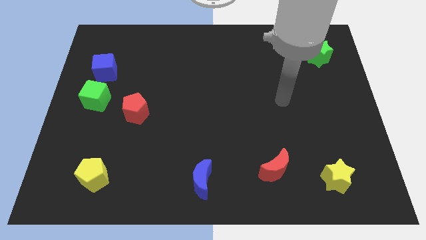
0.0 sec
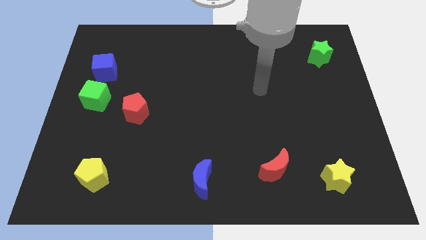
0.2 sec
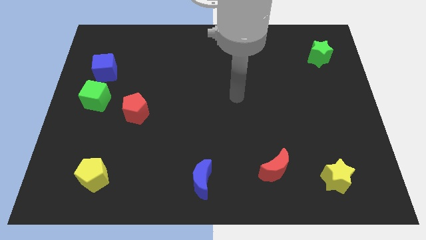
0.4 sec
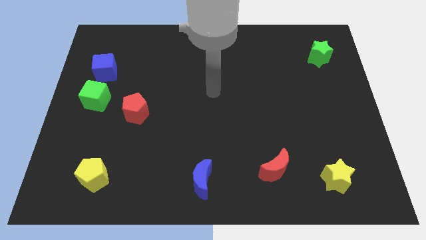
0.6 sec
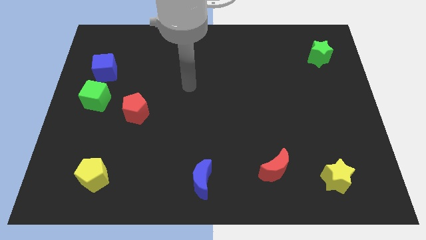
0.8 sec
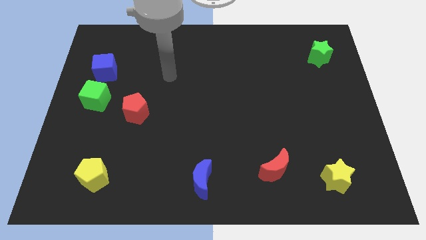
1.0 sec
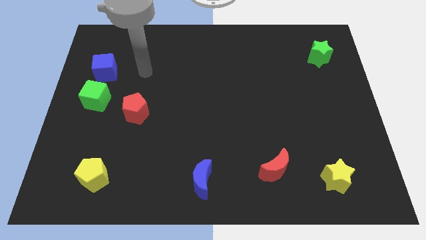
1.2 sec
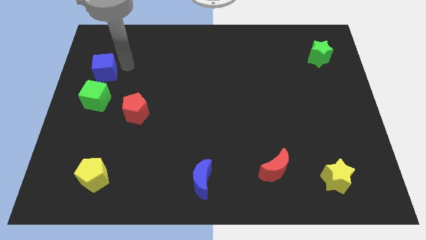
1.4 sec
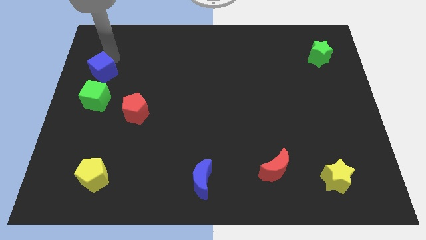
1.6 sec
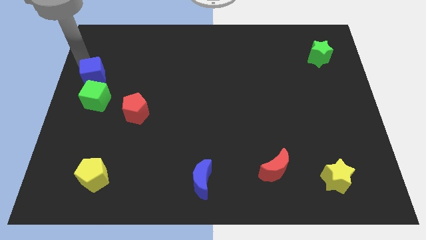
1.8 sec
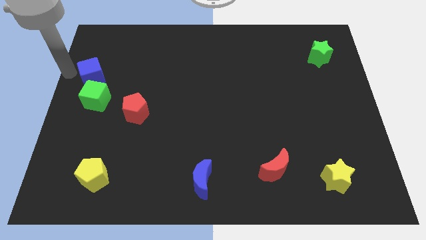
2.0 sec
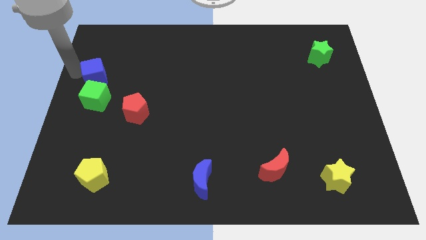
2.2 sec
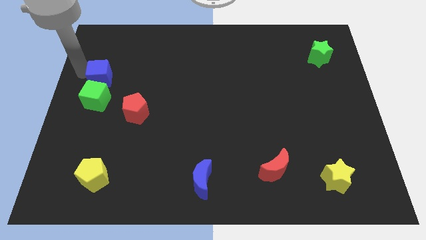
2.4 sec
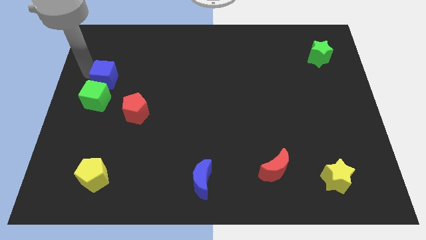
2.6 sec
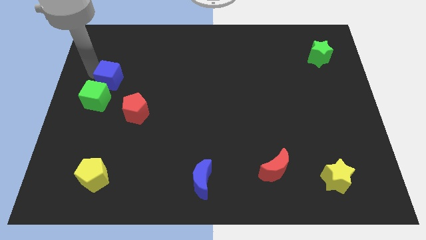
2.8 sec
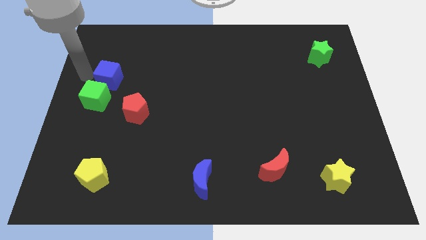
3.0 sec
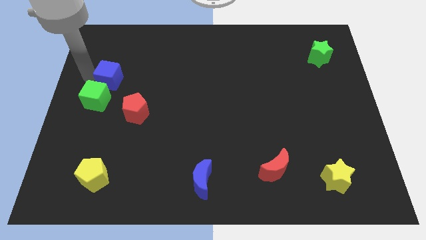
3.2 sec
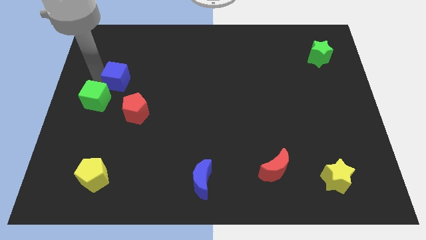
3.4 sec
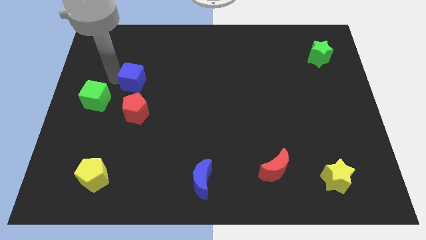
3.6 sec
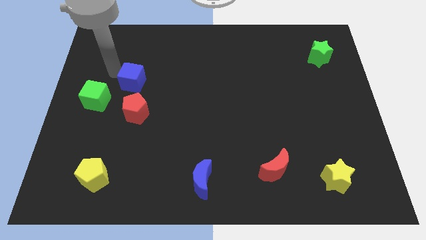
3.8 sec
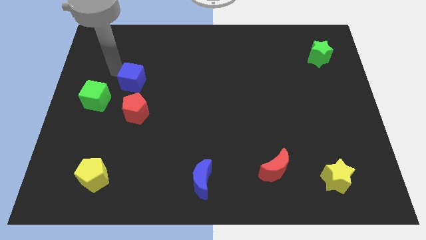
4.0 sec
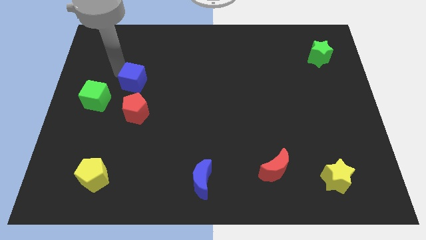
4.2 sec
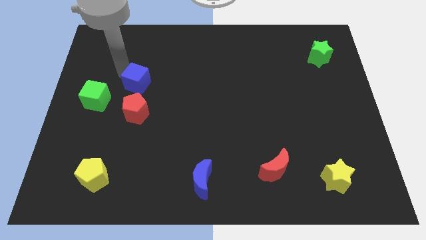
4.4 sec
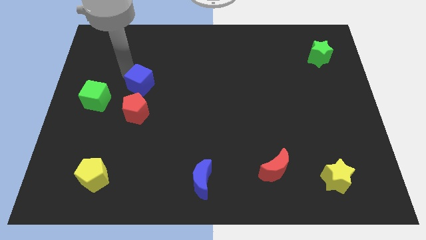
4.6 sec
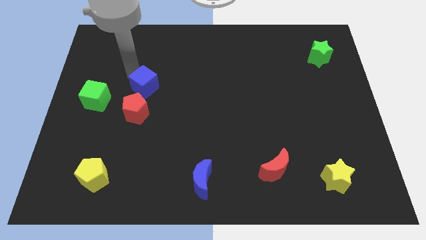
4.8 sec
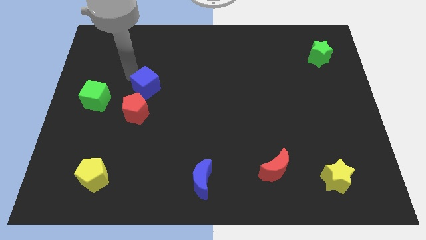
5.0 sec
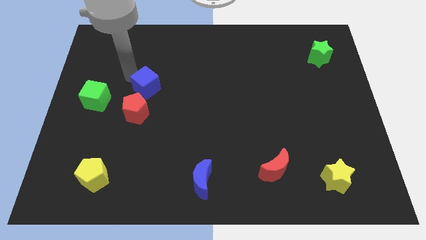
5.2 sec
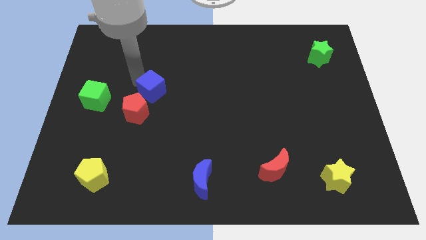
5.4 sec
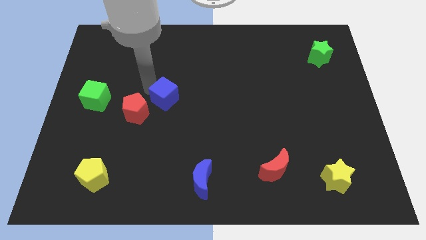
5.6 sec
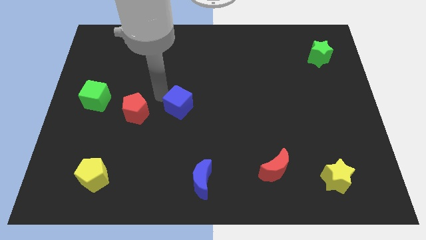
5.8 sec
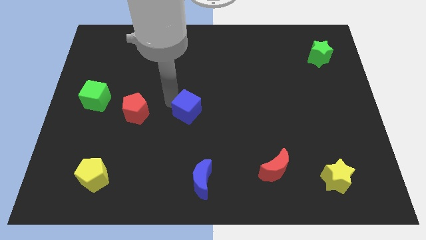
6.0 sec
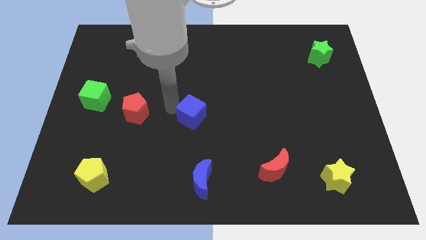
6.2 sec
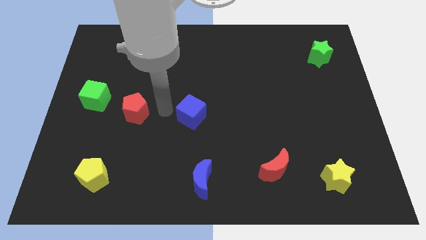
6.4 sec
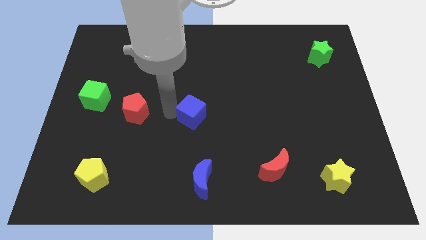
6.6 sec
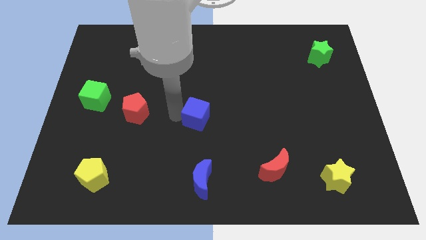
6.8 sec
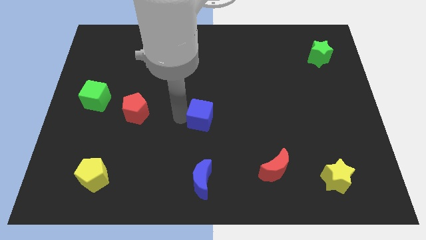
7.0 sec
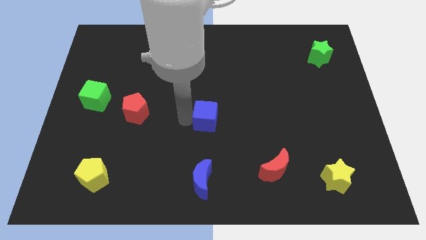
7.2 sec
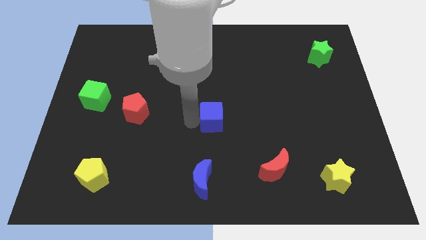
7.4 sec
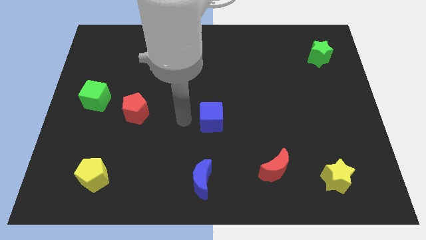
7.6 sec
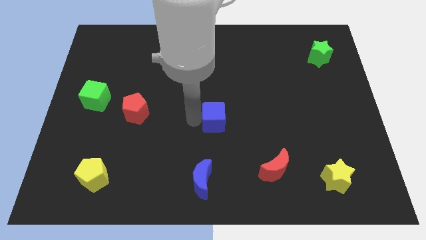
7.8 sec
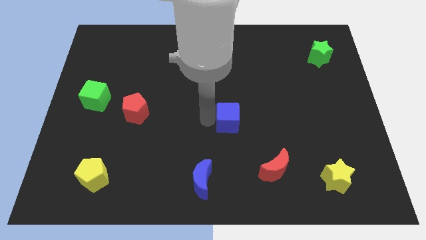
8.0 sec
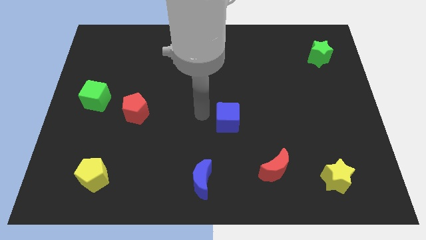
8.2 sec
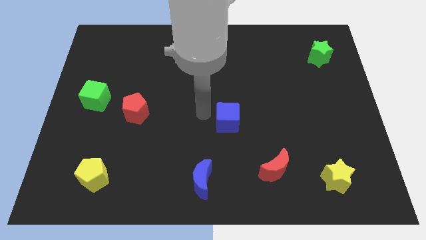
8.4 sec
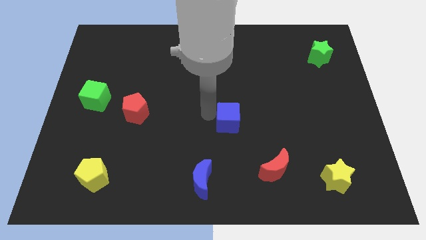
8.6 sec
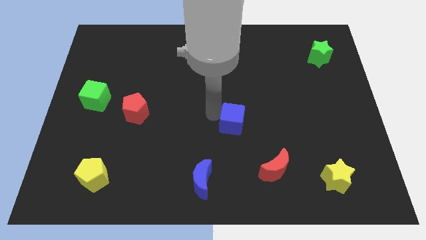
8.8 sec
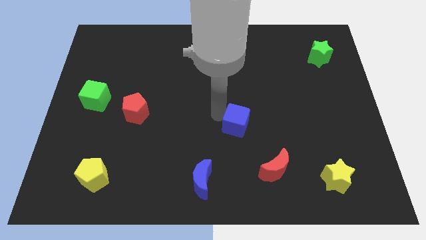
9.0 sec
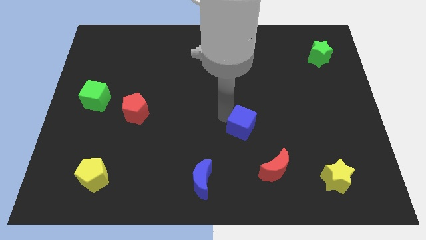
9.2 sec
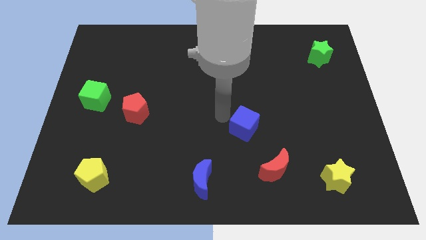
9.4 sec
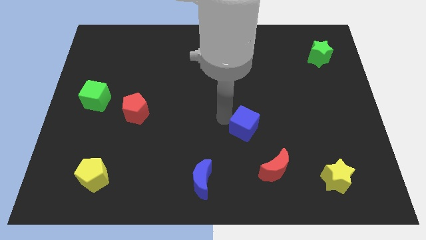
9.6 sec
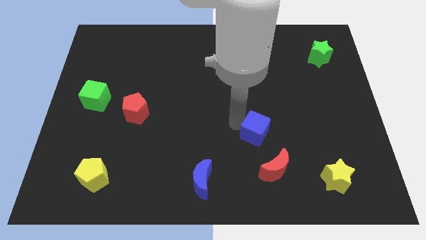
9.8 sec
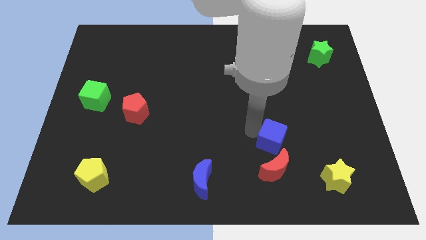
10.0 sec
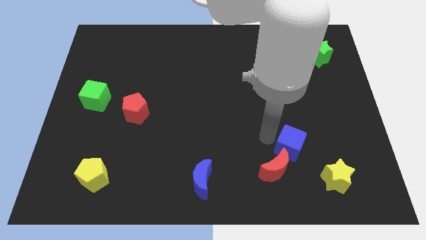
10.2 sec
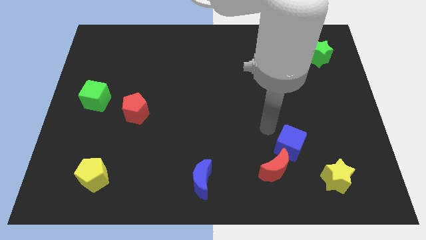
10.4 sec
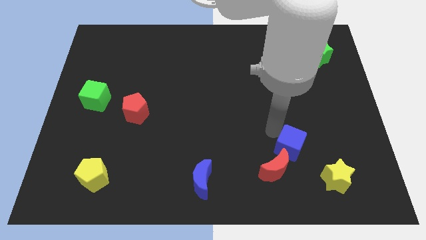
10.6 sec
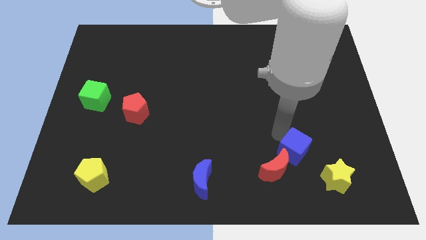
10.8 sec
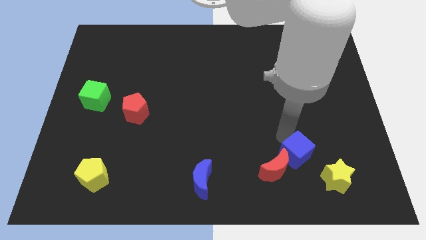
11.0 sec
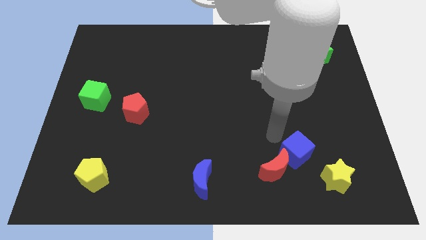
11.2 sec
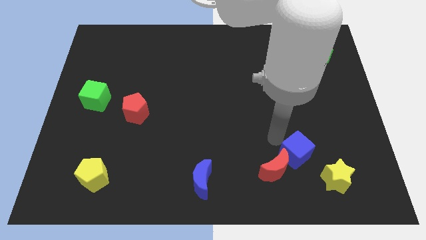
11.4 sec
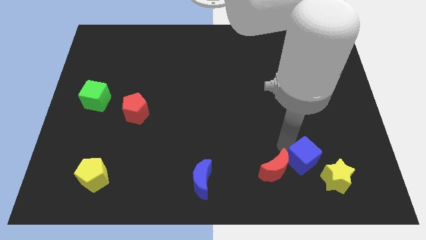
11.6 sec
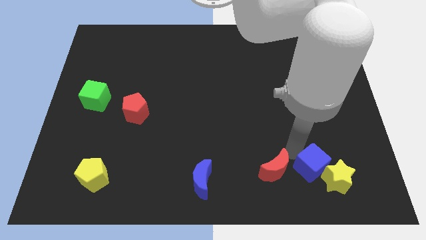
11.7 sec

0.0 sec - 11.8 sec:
slide the blue cube to the yellow star

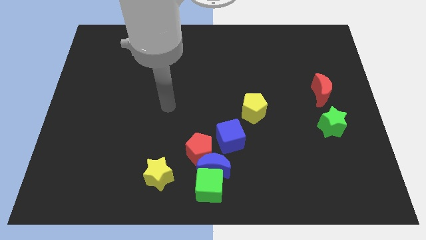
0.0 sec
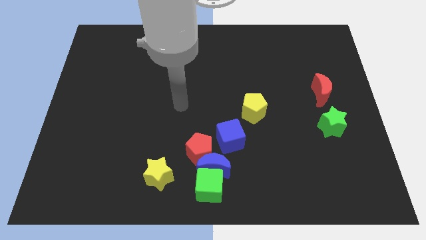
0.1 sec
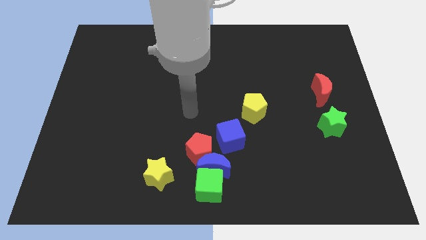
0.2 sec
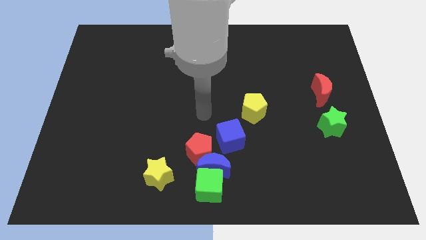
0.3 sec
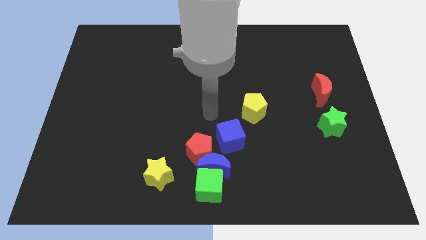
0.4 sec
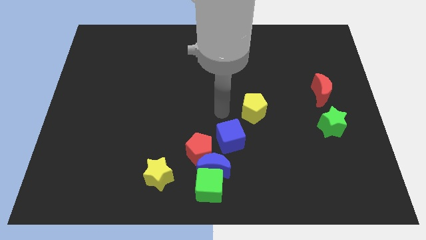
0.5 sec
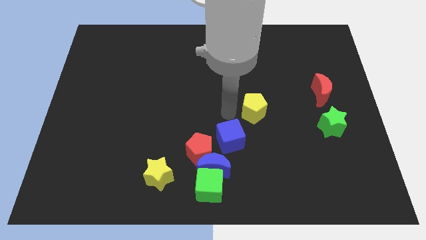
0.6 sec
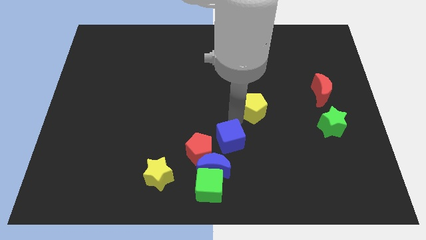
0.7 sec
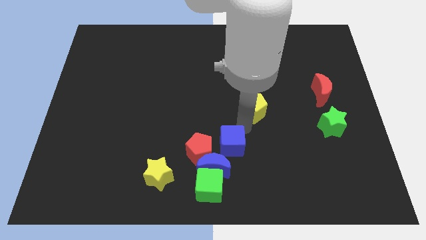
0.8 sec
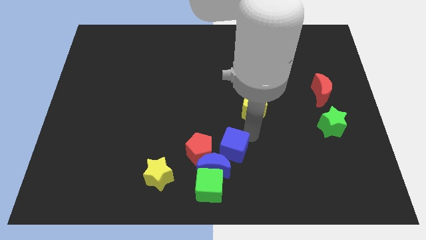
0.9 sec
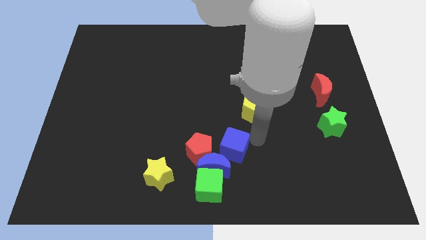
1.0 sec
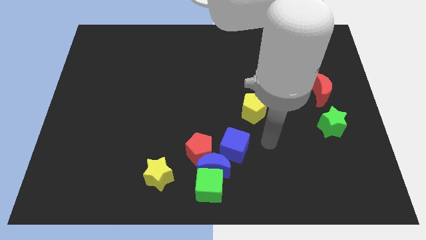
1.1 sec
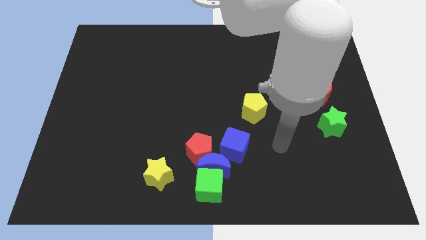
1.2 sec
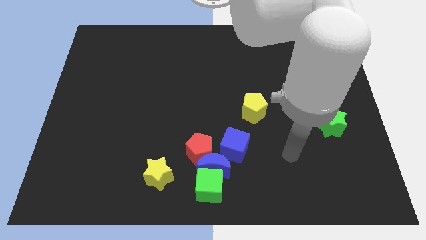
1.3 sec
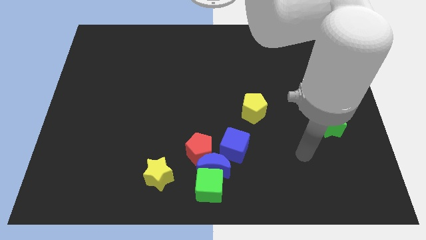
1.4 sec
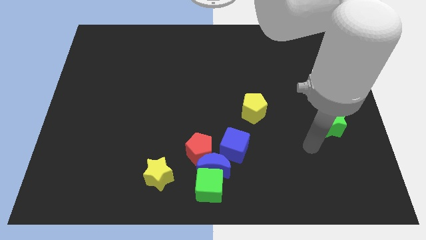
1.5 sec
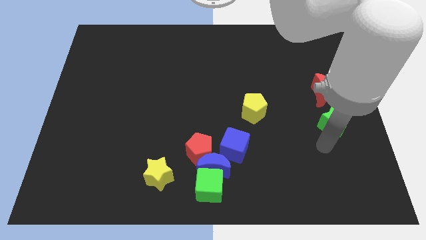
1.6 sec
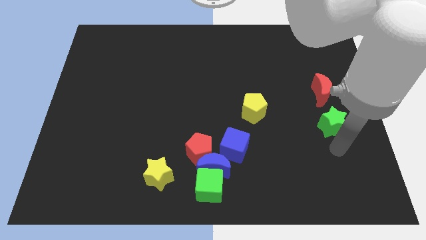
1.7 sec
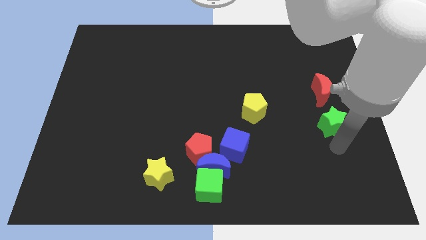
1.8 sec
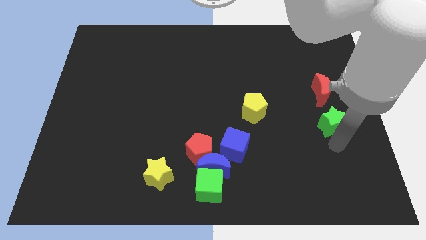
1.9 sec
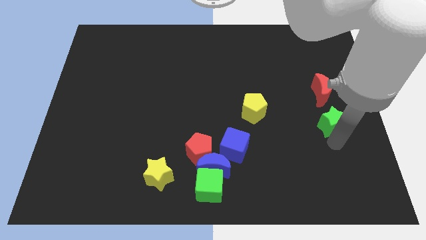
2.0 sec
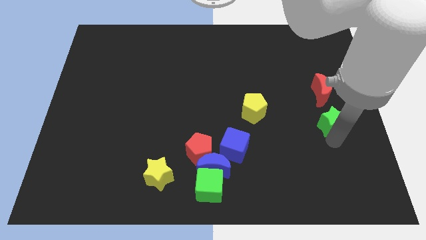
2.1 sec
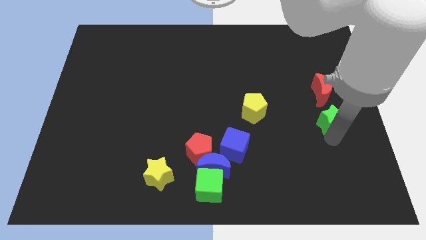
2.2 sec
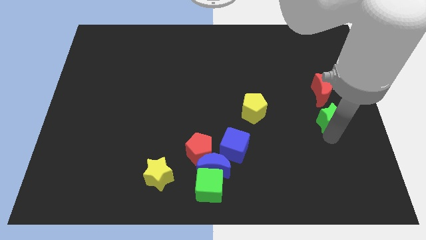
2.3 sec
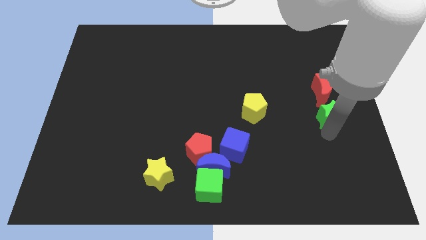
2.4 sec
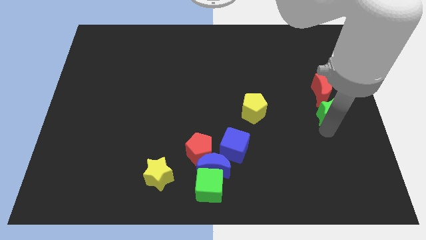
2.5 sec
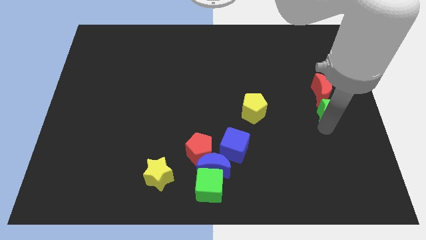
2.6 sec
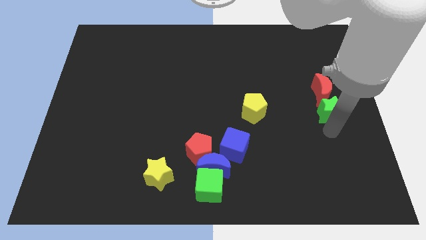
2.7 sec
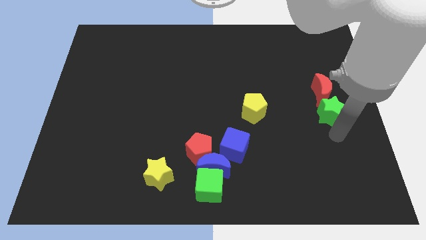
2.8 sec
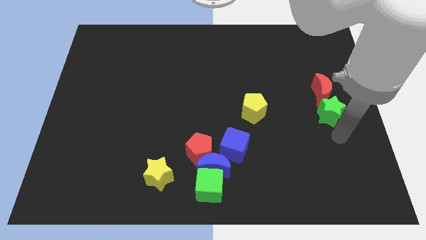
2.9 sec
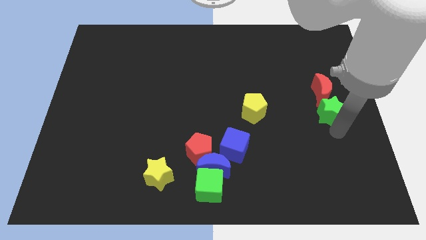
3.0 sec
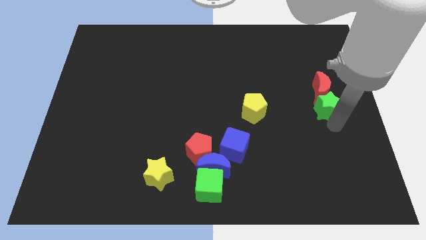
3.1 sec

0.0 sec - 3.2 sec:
put the green star next to the red moon
